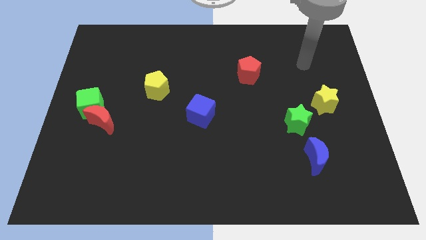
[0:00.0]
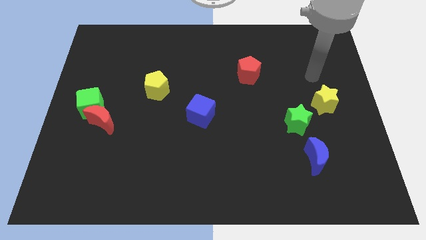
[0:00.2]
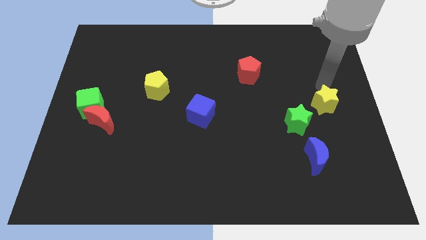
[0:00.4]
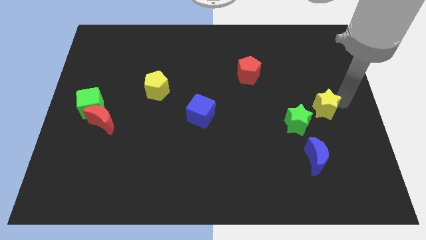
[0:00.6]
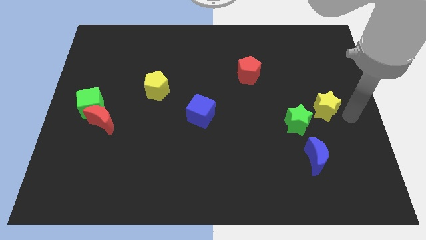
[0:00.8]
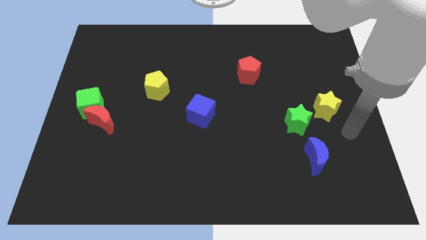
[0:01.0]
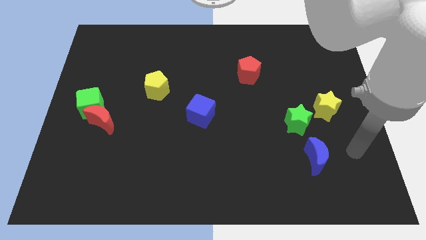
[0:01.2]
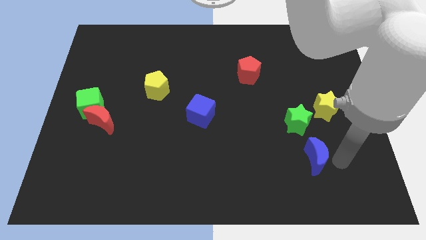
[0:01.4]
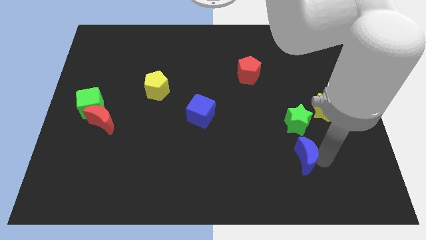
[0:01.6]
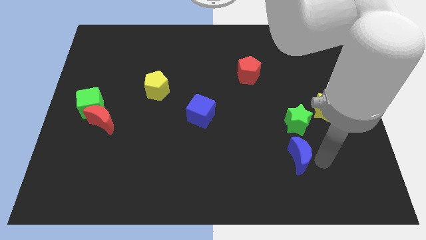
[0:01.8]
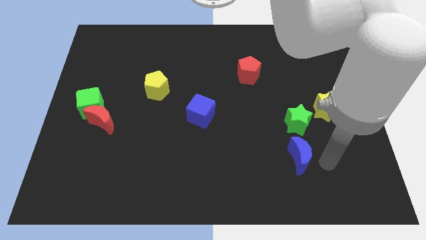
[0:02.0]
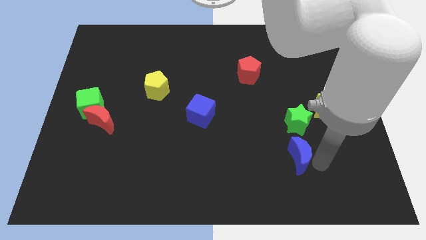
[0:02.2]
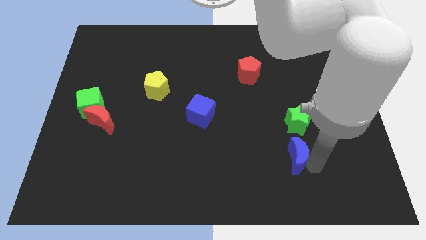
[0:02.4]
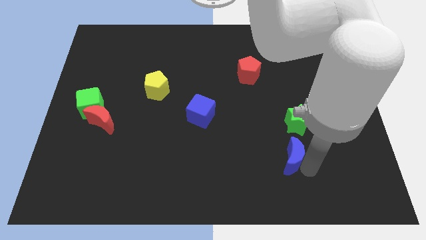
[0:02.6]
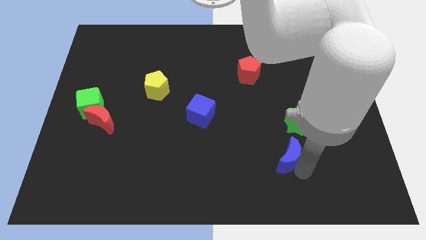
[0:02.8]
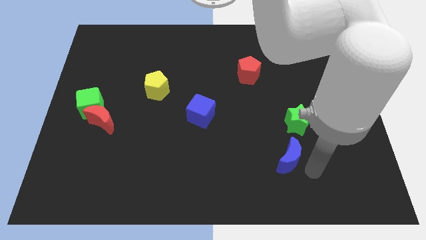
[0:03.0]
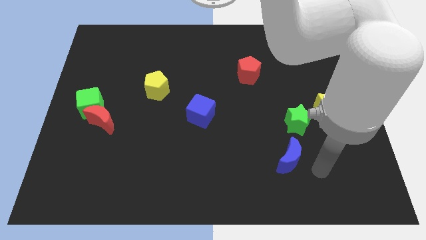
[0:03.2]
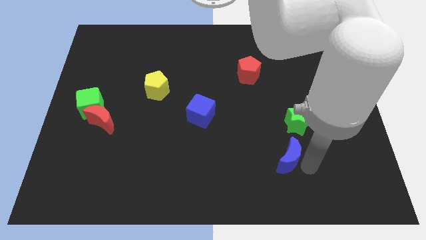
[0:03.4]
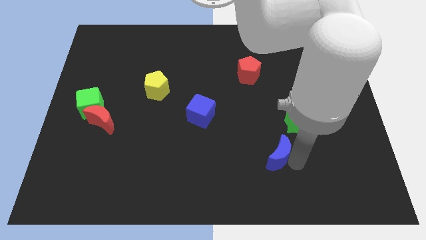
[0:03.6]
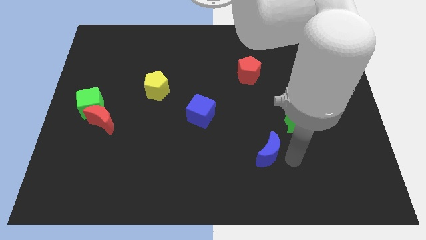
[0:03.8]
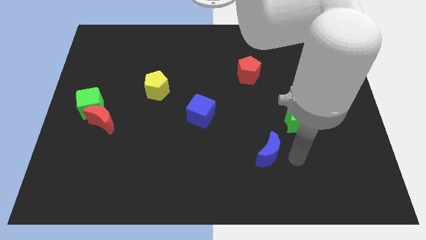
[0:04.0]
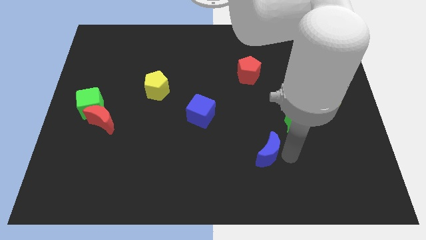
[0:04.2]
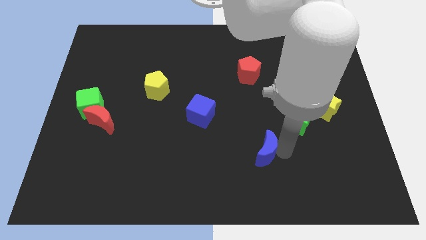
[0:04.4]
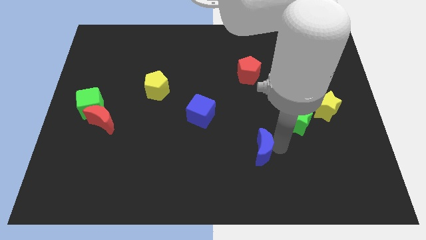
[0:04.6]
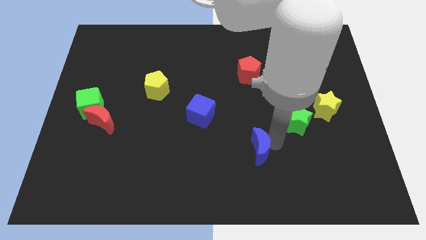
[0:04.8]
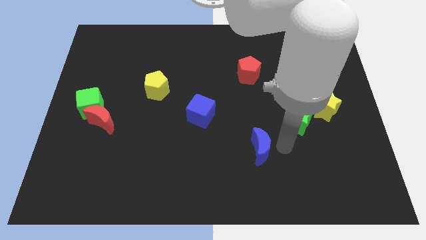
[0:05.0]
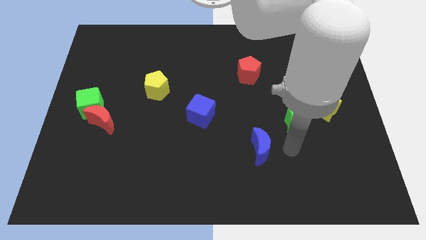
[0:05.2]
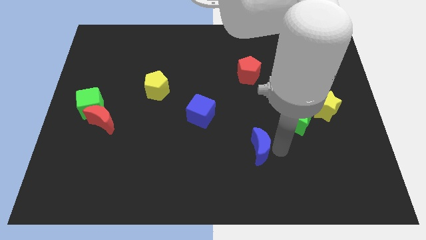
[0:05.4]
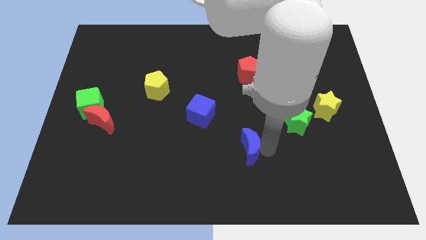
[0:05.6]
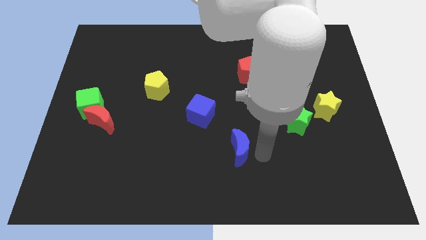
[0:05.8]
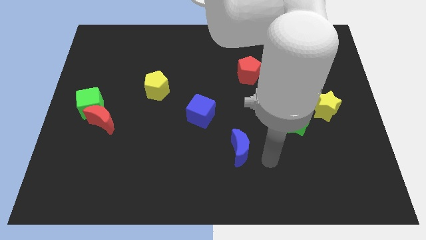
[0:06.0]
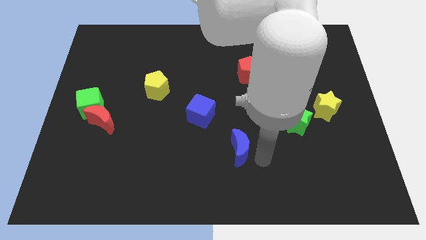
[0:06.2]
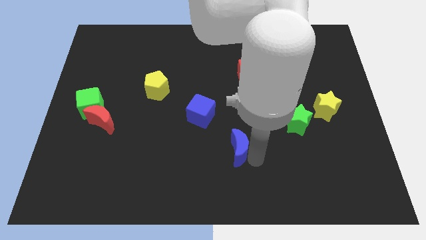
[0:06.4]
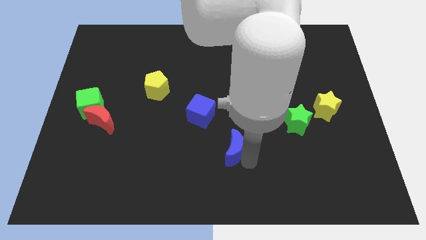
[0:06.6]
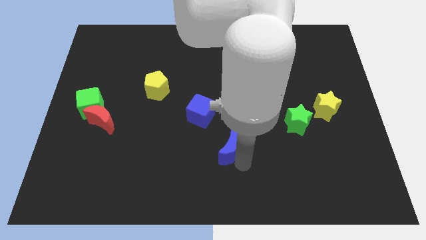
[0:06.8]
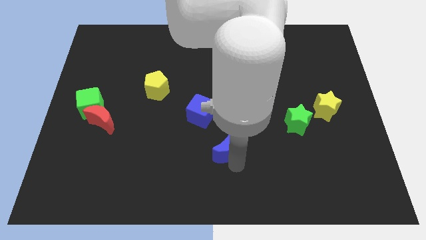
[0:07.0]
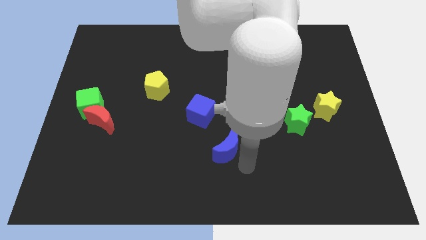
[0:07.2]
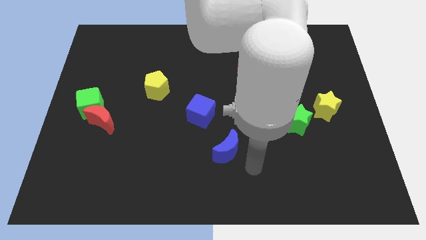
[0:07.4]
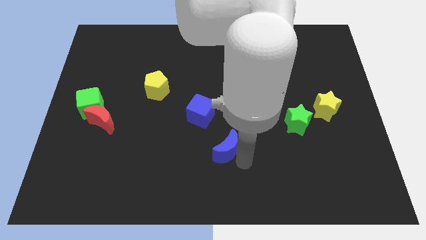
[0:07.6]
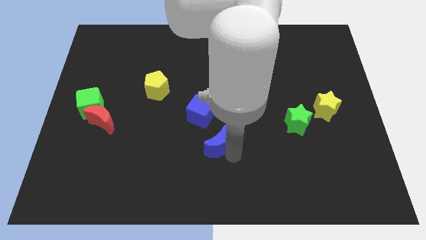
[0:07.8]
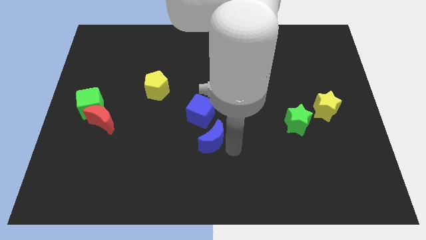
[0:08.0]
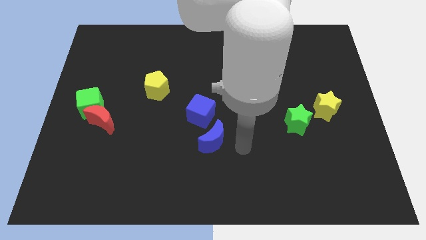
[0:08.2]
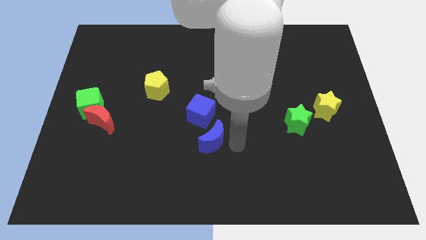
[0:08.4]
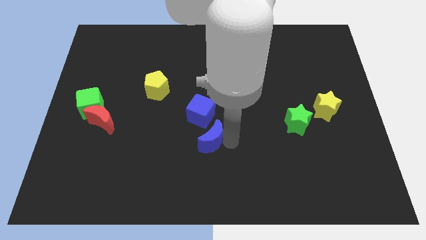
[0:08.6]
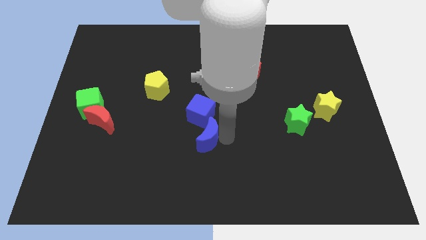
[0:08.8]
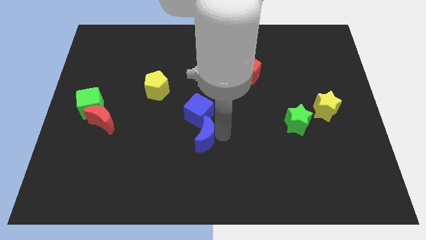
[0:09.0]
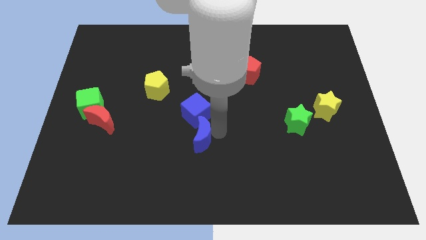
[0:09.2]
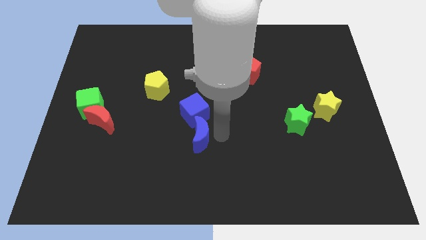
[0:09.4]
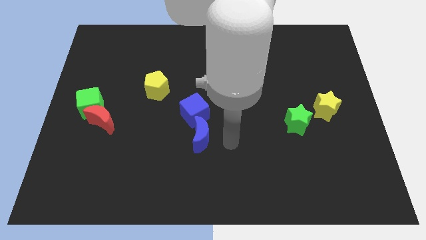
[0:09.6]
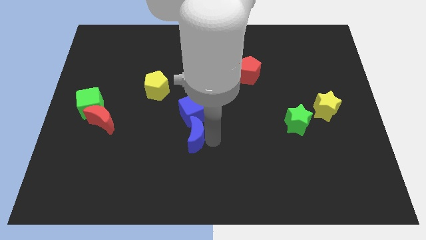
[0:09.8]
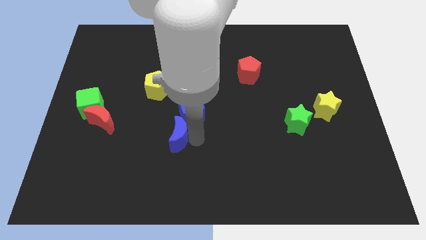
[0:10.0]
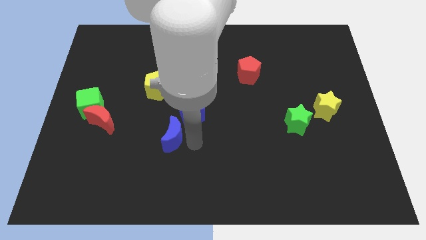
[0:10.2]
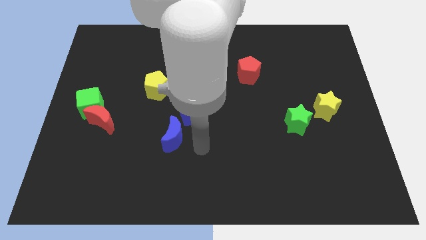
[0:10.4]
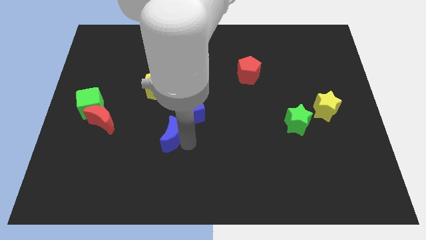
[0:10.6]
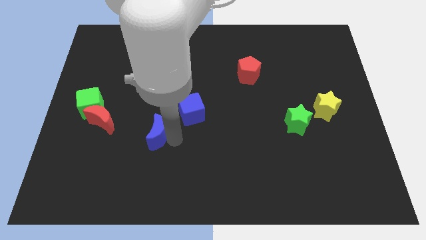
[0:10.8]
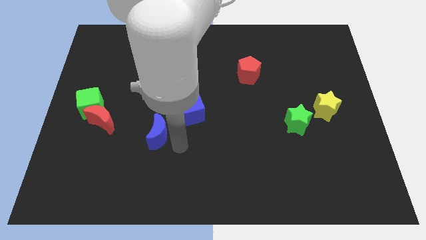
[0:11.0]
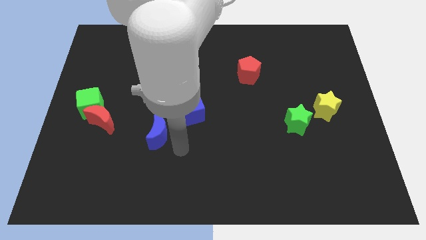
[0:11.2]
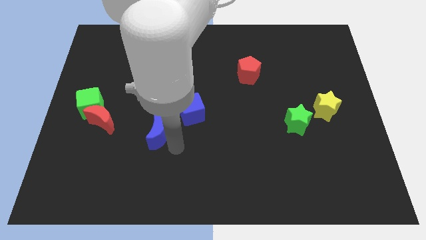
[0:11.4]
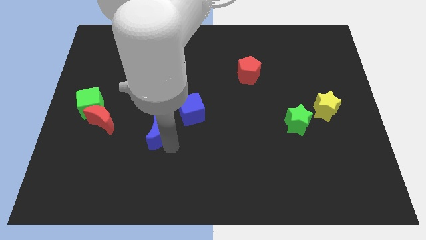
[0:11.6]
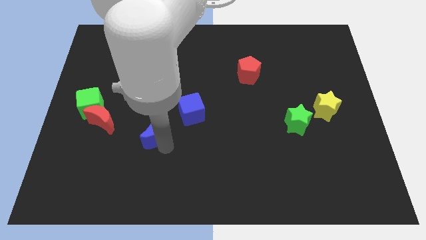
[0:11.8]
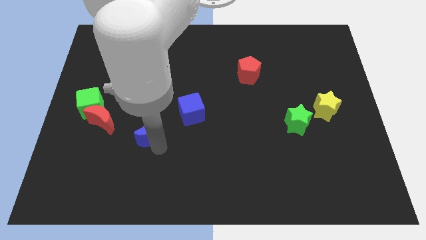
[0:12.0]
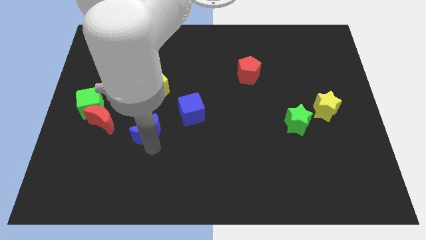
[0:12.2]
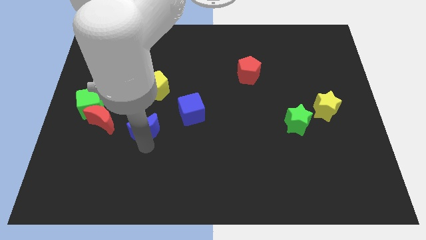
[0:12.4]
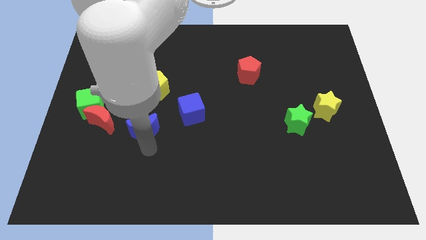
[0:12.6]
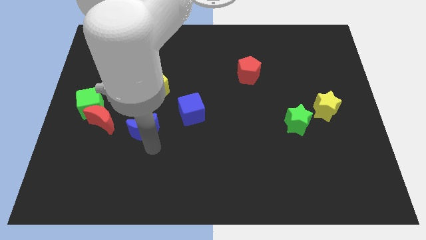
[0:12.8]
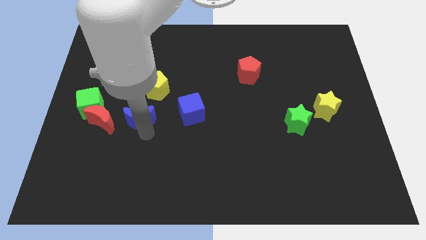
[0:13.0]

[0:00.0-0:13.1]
push the blue moon to the bottom left of the yellow pentagon
